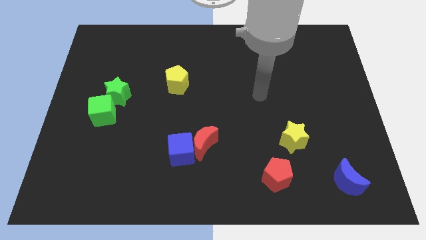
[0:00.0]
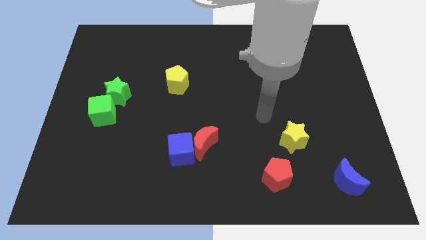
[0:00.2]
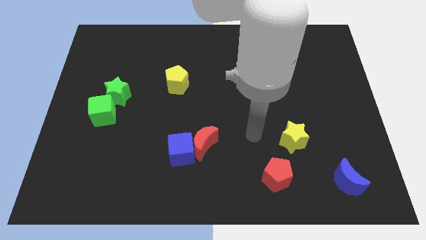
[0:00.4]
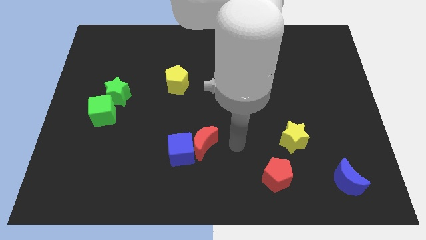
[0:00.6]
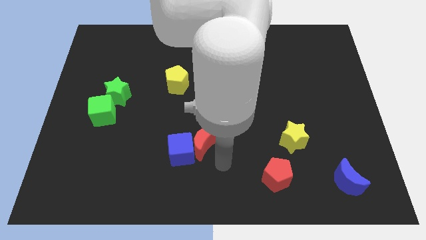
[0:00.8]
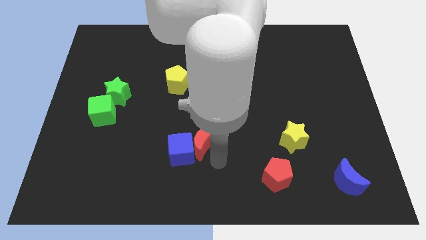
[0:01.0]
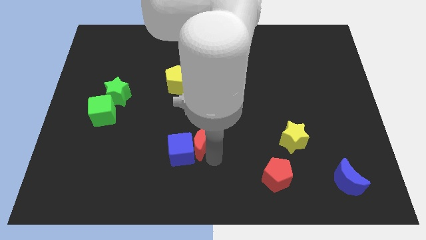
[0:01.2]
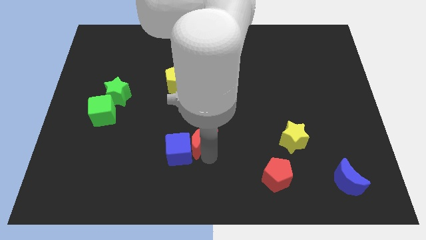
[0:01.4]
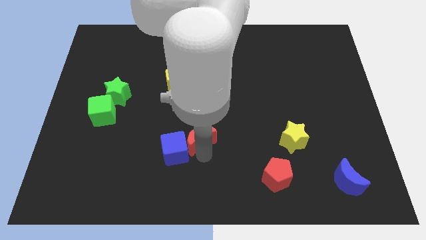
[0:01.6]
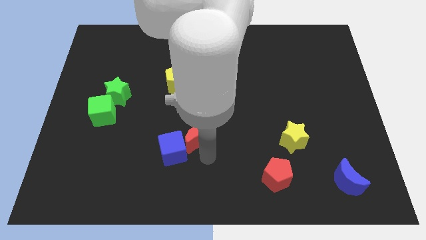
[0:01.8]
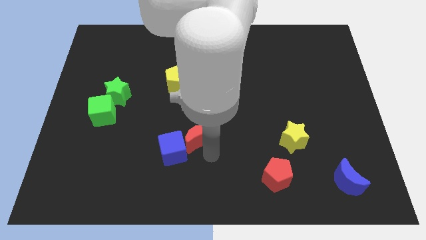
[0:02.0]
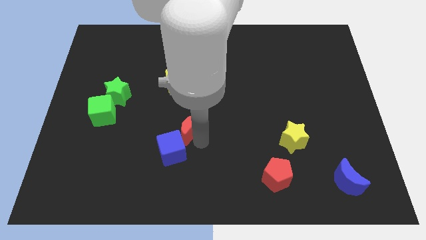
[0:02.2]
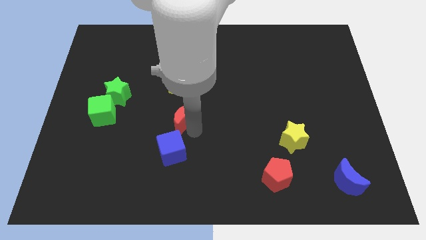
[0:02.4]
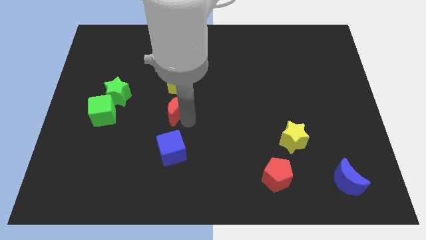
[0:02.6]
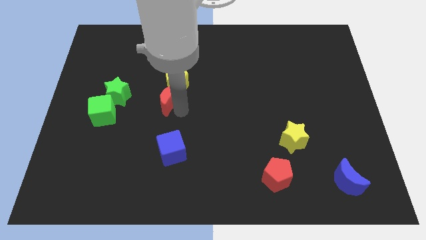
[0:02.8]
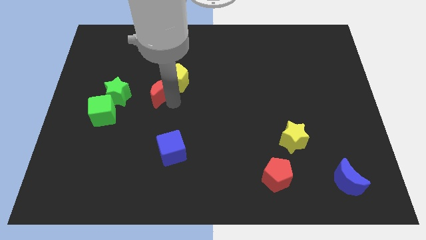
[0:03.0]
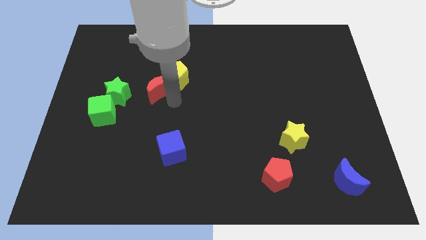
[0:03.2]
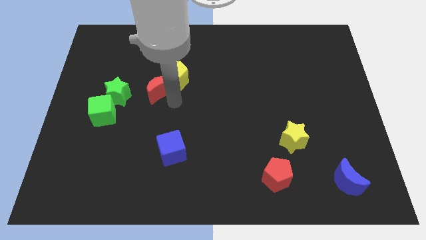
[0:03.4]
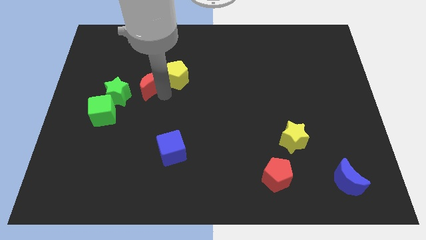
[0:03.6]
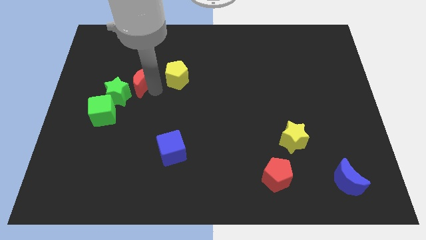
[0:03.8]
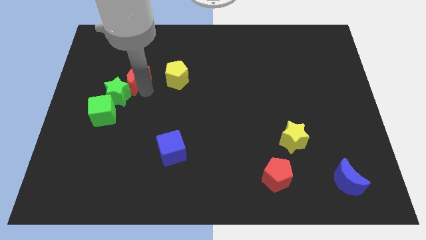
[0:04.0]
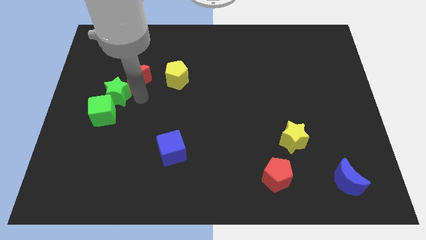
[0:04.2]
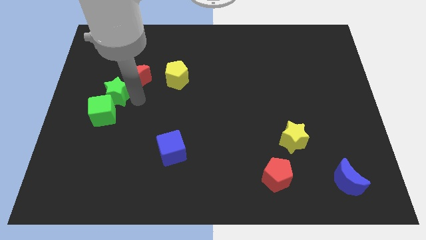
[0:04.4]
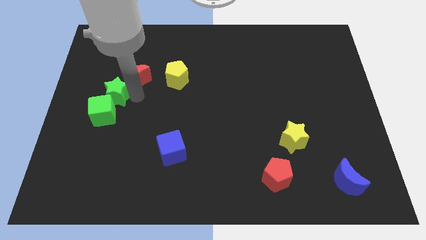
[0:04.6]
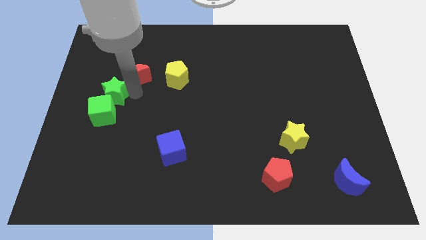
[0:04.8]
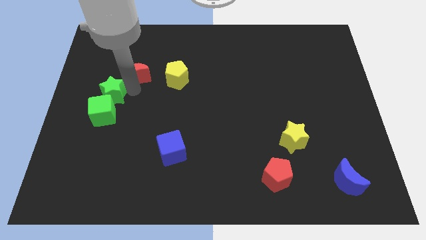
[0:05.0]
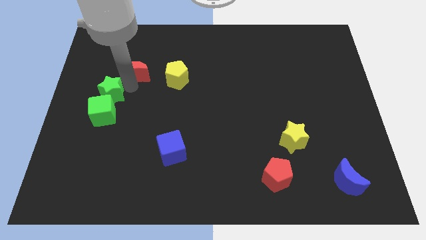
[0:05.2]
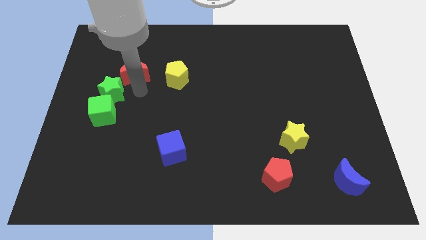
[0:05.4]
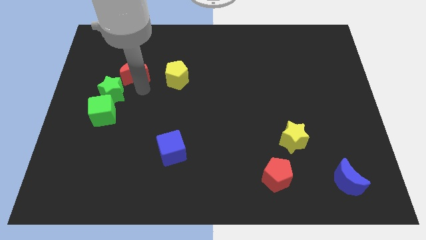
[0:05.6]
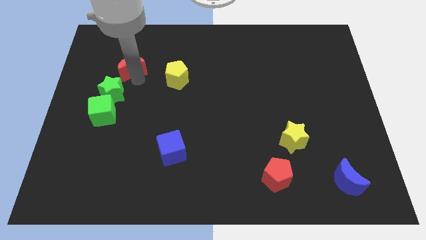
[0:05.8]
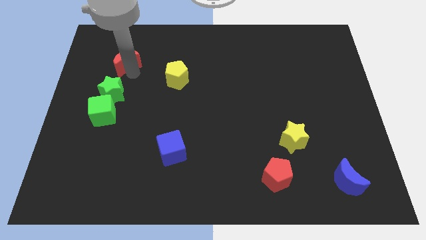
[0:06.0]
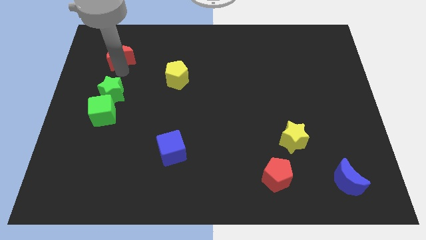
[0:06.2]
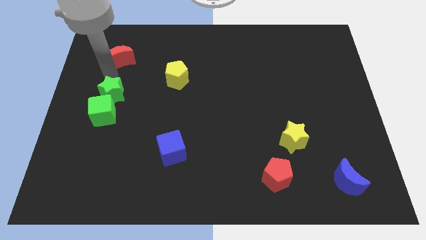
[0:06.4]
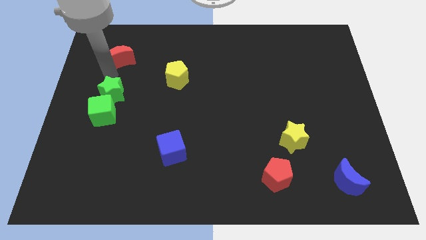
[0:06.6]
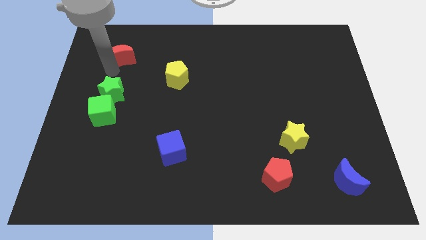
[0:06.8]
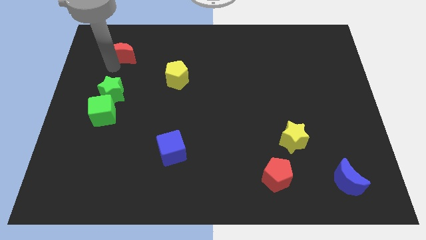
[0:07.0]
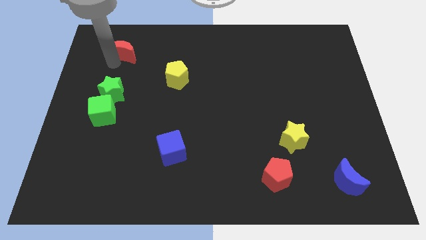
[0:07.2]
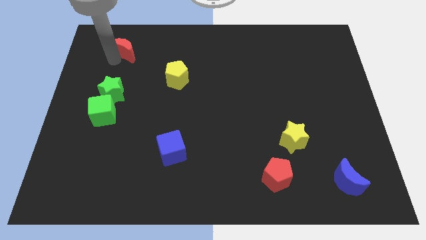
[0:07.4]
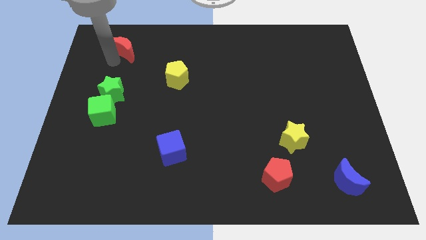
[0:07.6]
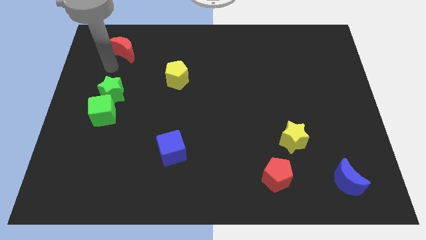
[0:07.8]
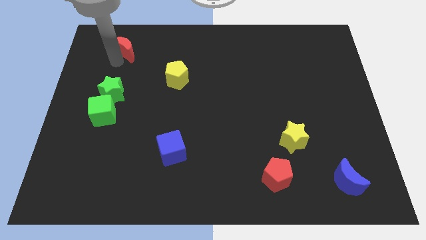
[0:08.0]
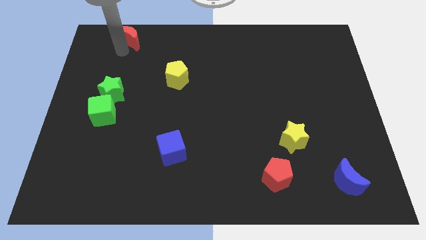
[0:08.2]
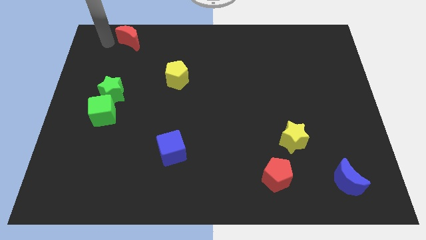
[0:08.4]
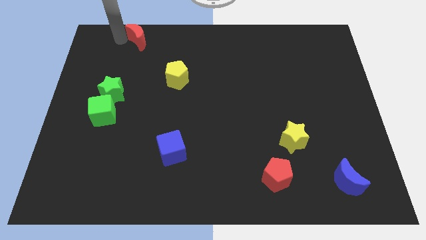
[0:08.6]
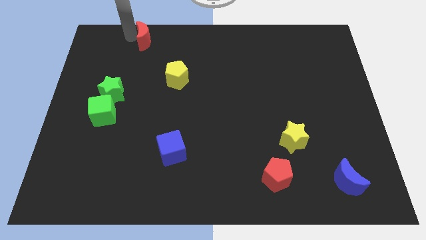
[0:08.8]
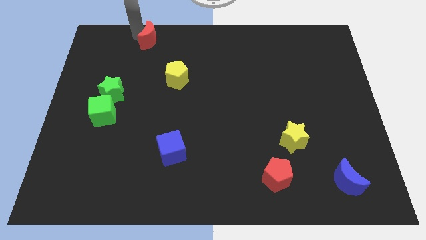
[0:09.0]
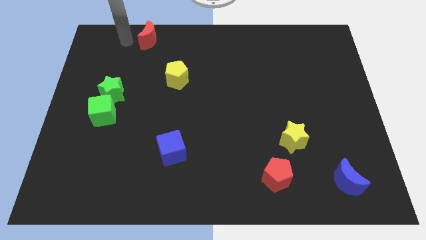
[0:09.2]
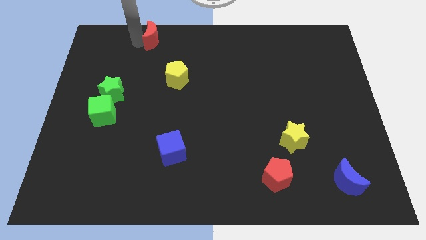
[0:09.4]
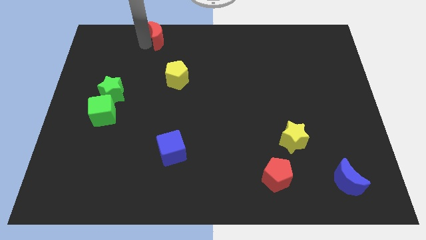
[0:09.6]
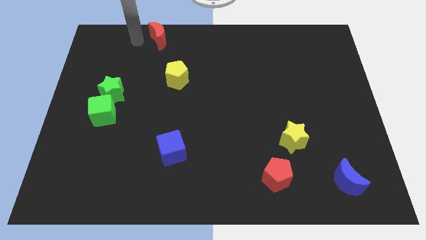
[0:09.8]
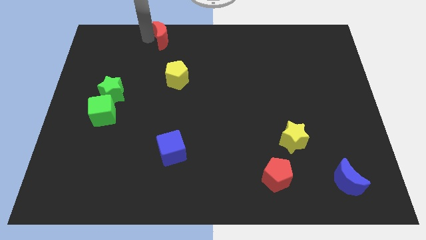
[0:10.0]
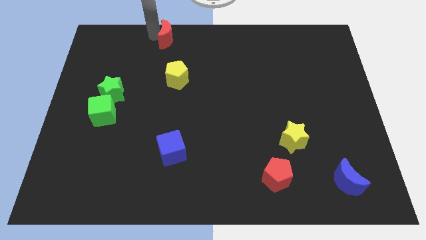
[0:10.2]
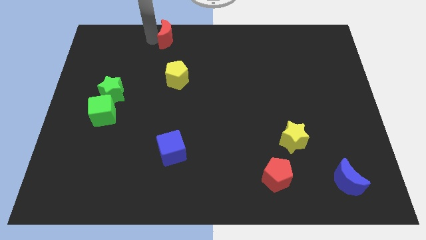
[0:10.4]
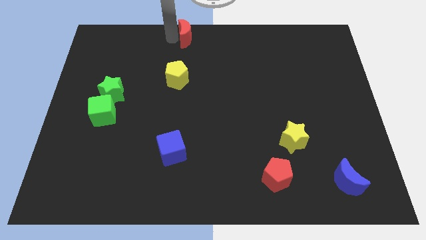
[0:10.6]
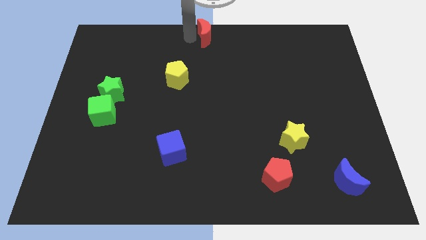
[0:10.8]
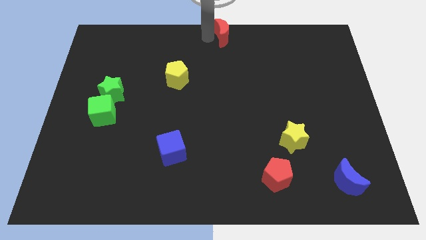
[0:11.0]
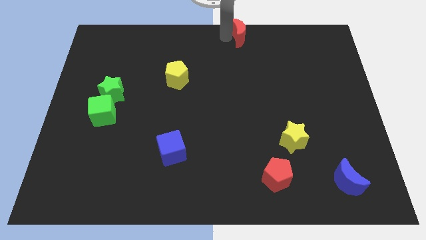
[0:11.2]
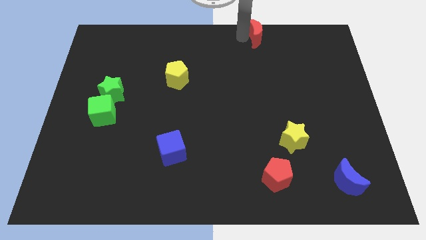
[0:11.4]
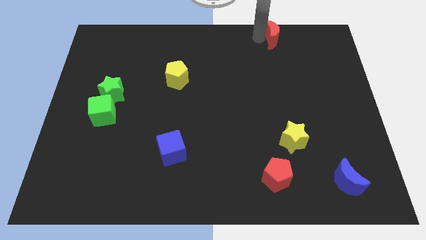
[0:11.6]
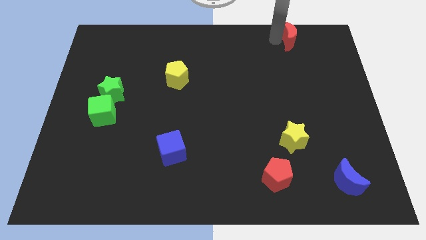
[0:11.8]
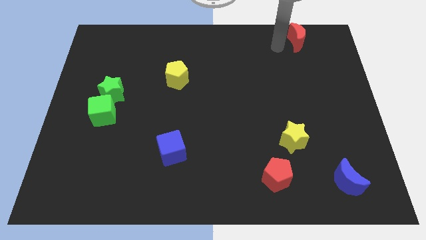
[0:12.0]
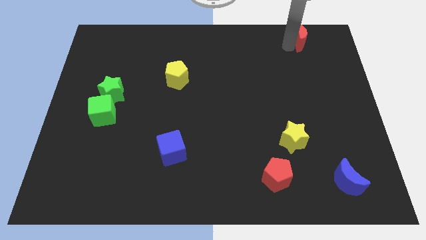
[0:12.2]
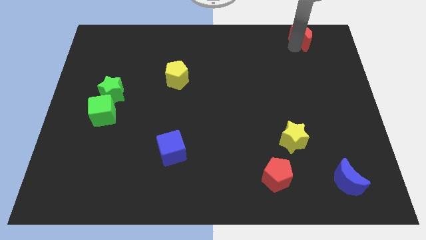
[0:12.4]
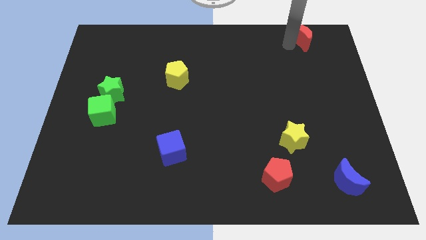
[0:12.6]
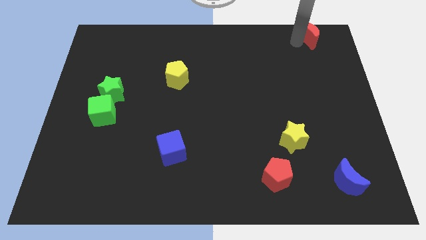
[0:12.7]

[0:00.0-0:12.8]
push the red moon to the top right corner

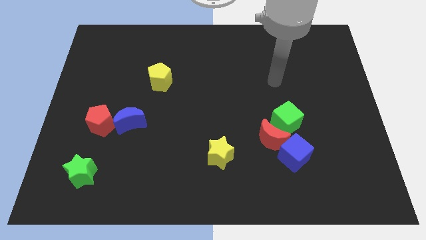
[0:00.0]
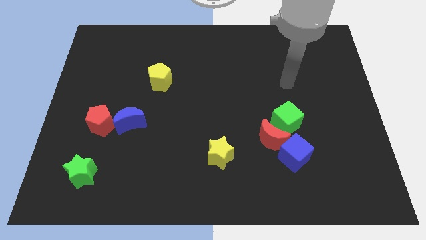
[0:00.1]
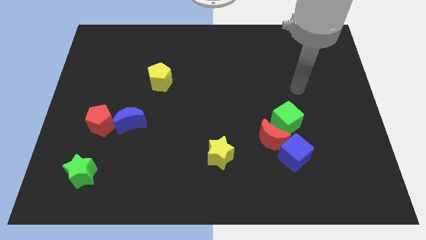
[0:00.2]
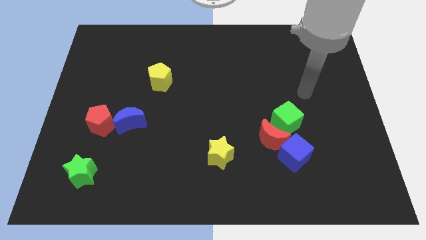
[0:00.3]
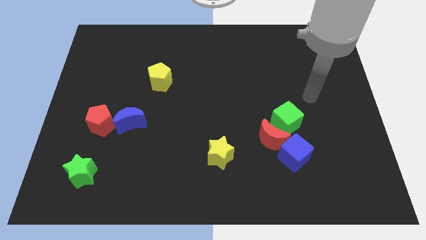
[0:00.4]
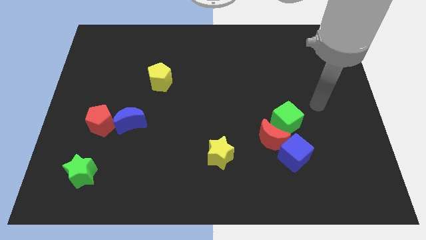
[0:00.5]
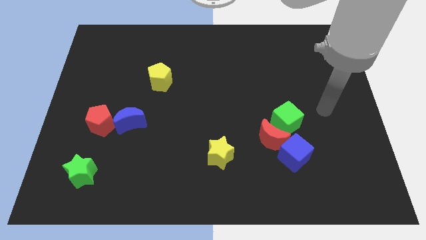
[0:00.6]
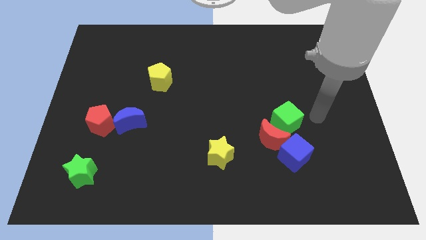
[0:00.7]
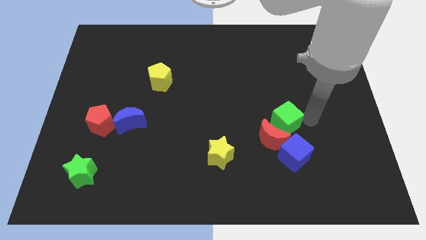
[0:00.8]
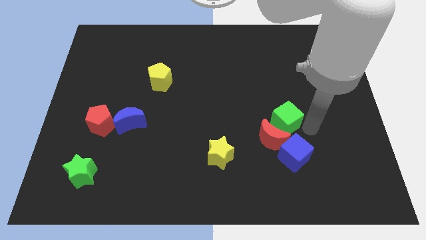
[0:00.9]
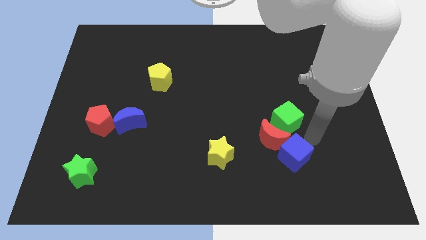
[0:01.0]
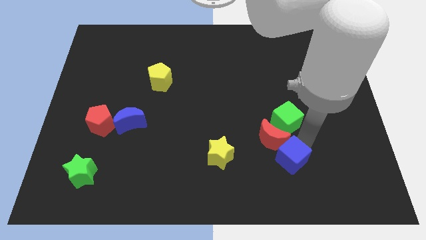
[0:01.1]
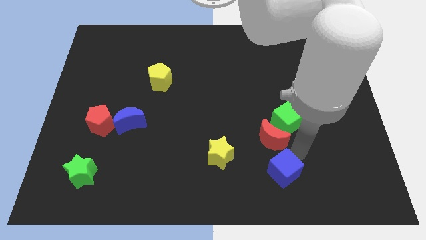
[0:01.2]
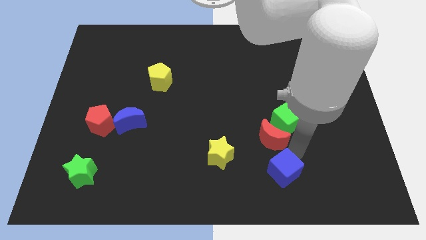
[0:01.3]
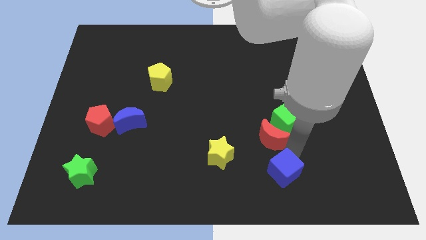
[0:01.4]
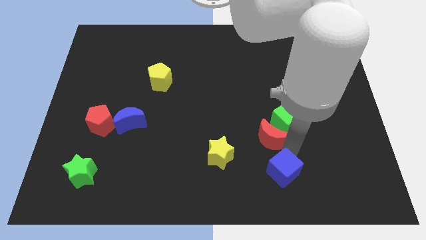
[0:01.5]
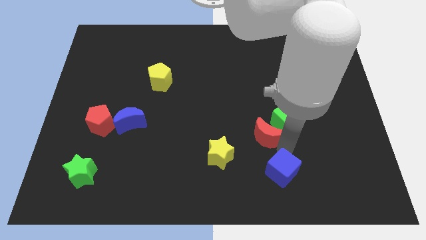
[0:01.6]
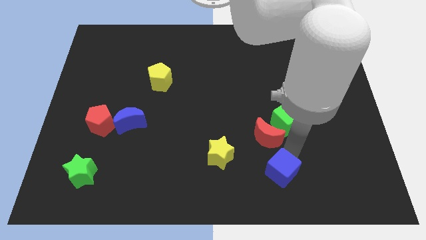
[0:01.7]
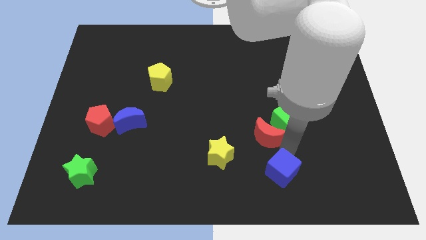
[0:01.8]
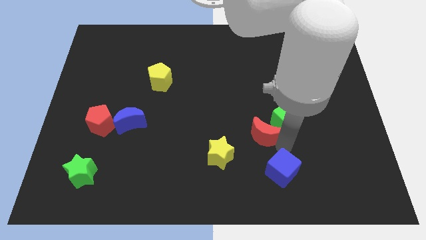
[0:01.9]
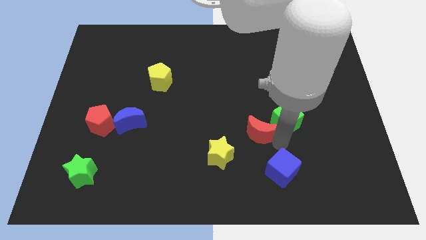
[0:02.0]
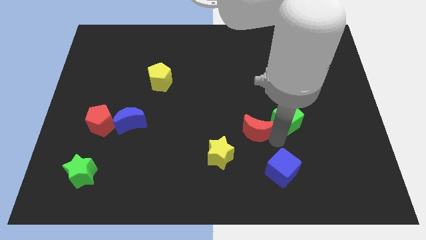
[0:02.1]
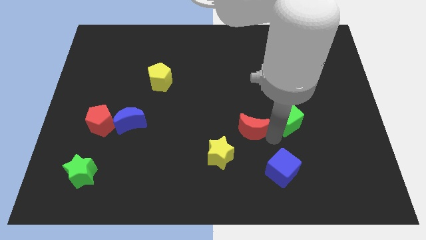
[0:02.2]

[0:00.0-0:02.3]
move the red moon to the center of the board
